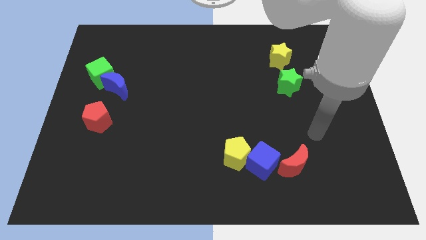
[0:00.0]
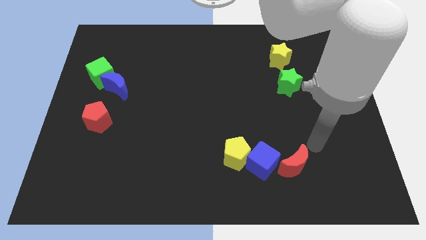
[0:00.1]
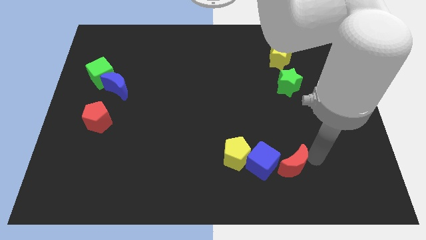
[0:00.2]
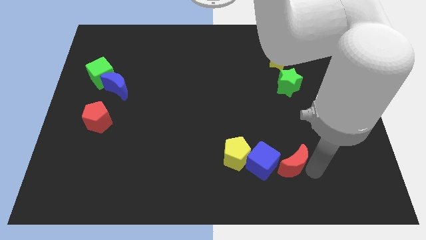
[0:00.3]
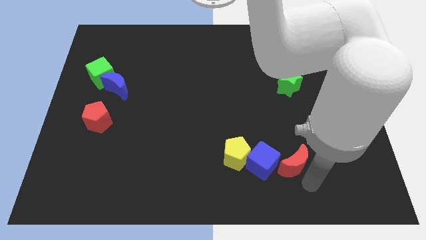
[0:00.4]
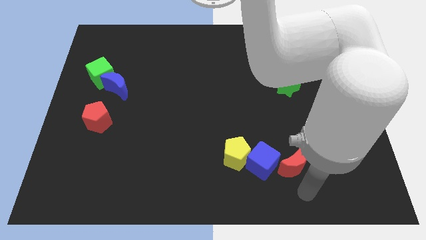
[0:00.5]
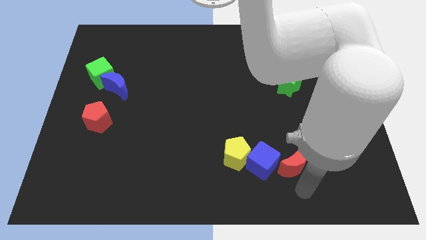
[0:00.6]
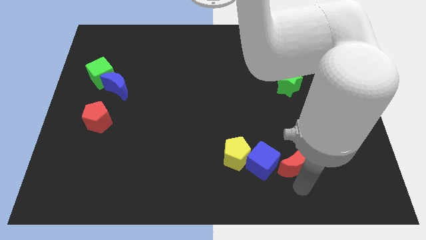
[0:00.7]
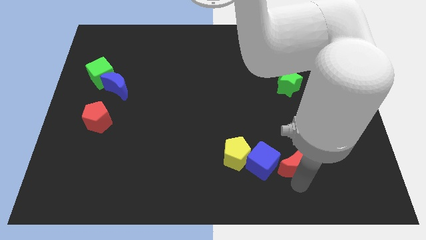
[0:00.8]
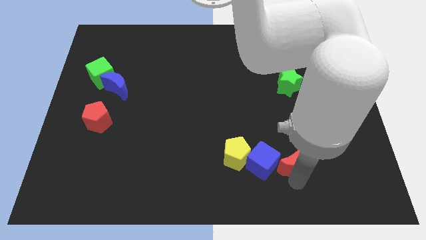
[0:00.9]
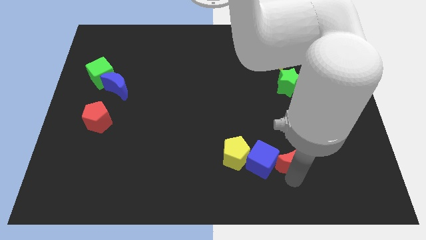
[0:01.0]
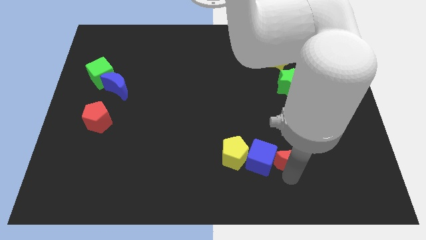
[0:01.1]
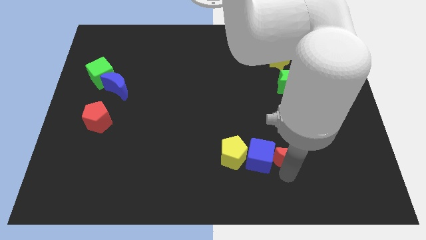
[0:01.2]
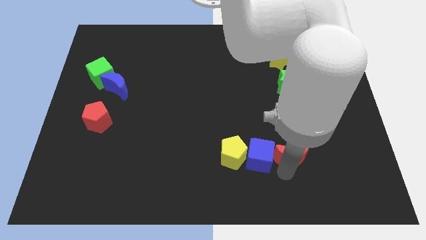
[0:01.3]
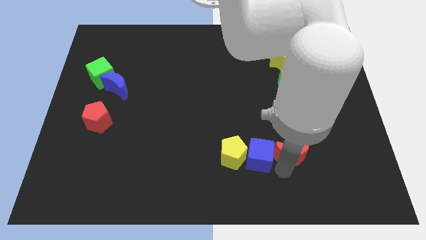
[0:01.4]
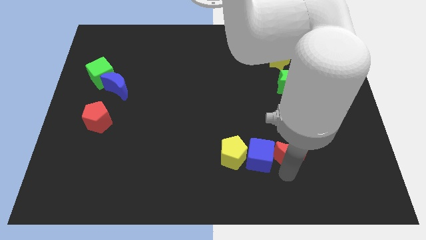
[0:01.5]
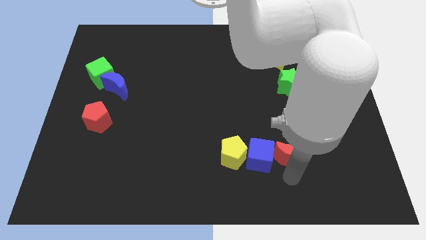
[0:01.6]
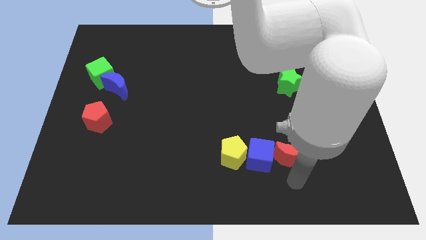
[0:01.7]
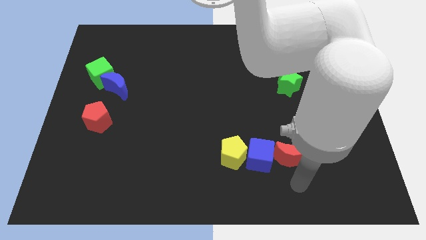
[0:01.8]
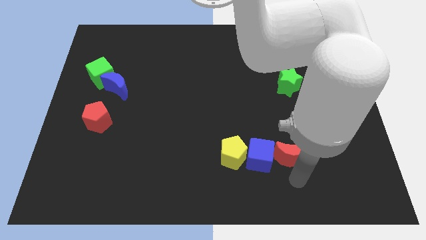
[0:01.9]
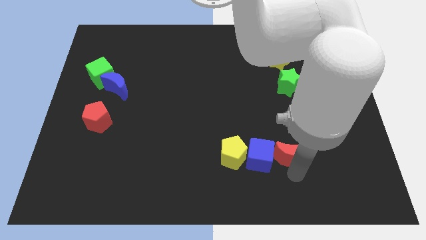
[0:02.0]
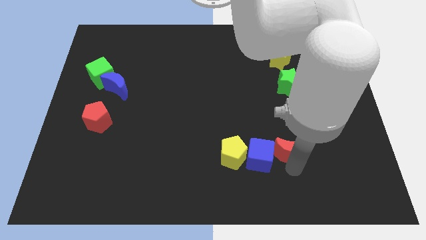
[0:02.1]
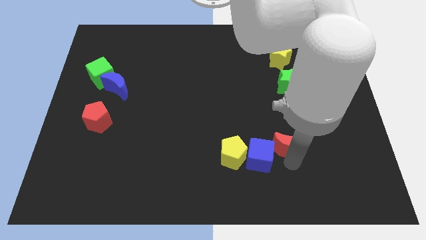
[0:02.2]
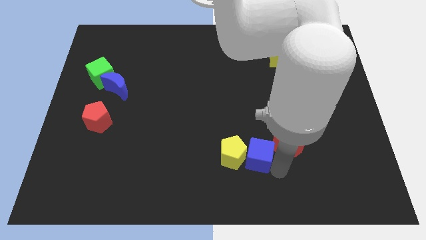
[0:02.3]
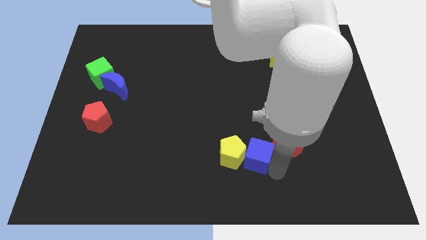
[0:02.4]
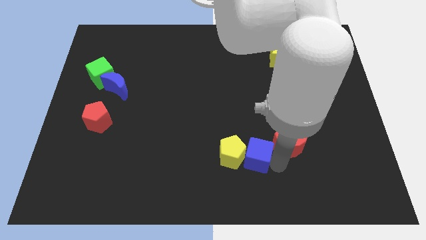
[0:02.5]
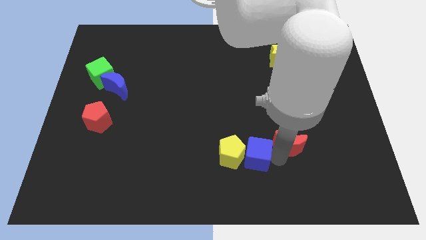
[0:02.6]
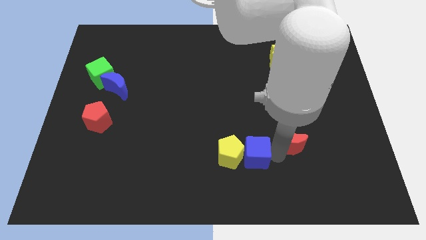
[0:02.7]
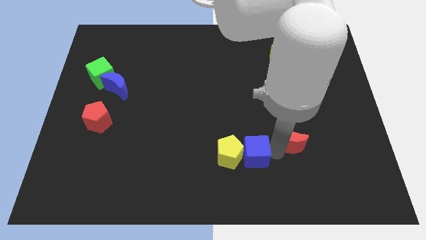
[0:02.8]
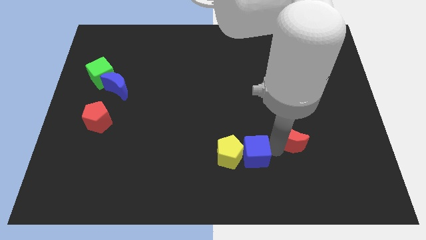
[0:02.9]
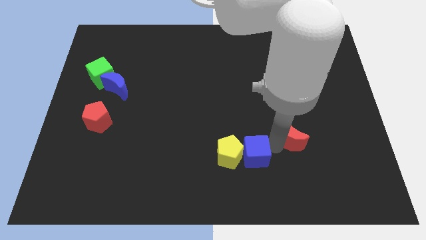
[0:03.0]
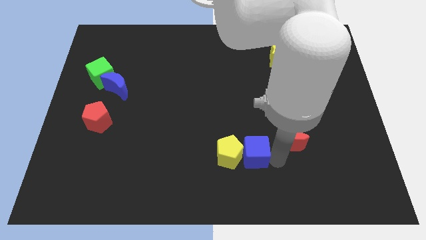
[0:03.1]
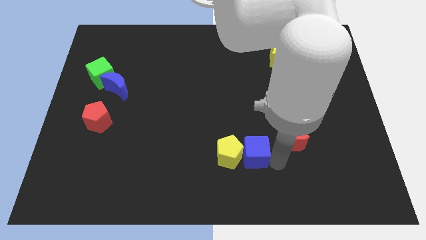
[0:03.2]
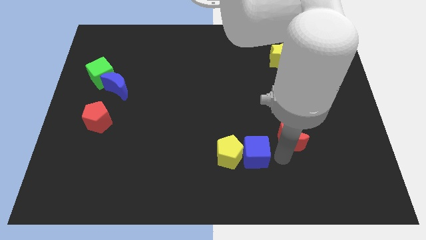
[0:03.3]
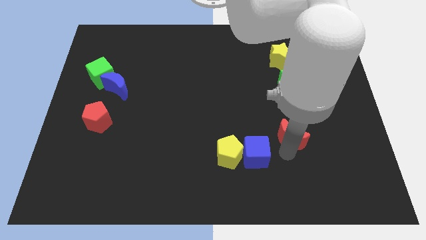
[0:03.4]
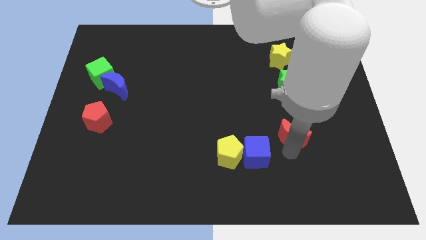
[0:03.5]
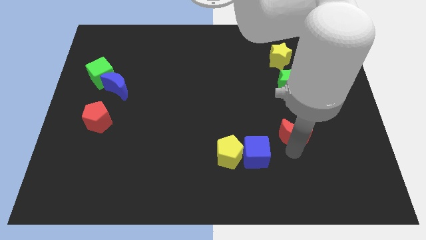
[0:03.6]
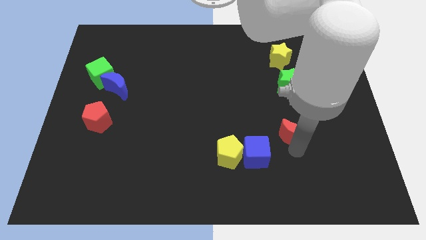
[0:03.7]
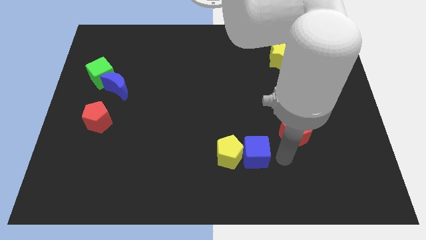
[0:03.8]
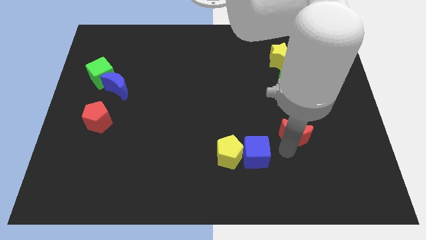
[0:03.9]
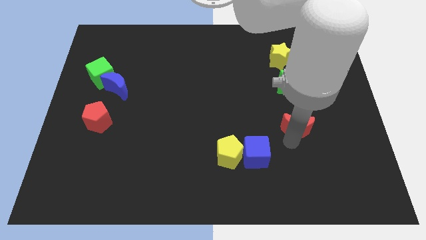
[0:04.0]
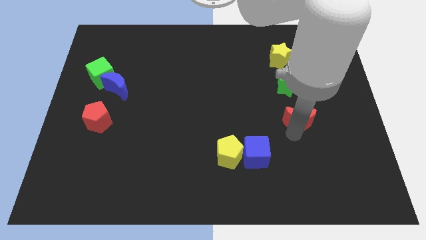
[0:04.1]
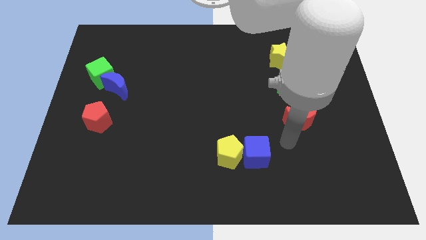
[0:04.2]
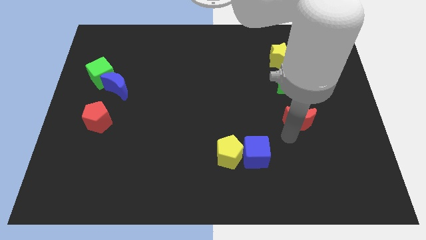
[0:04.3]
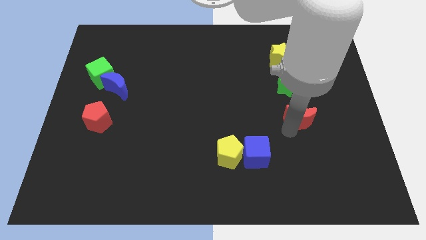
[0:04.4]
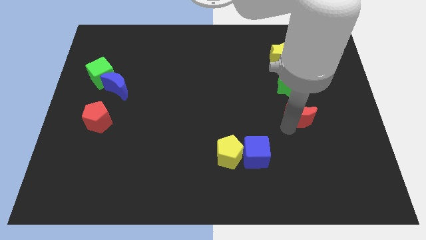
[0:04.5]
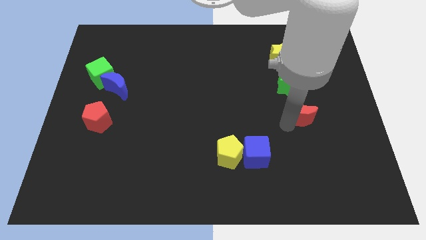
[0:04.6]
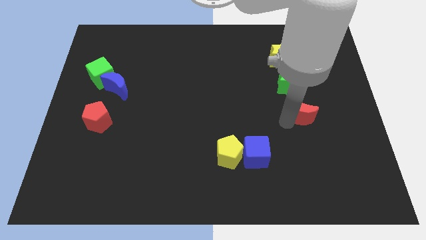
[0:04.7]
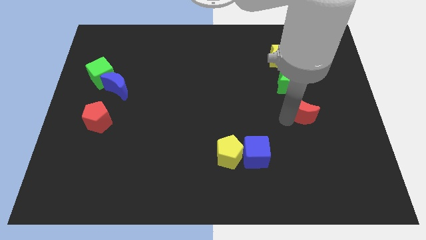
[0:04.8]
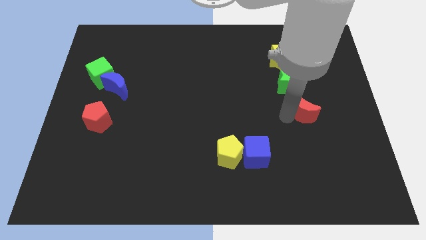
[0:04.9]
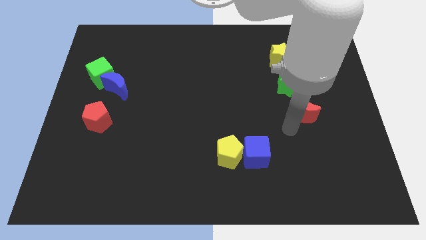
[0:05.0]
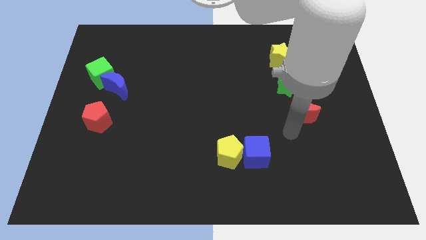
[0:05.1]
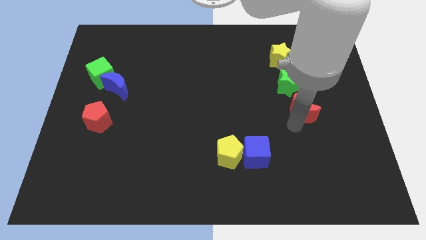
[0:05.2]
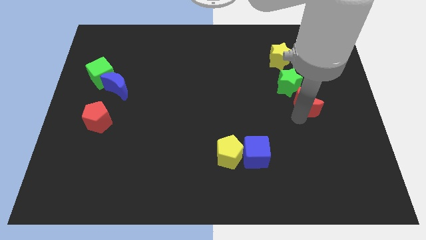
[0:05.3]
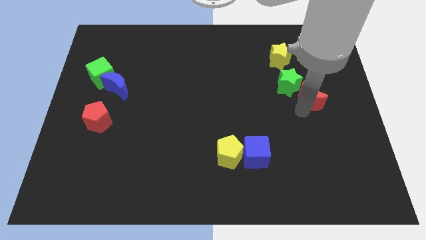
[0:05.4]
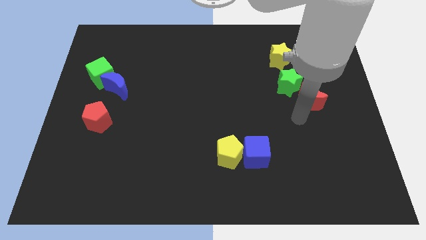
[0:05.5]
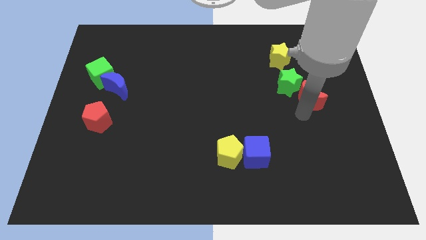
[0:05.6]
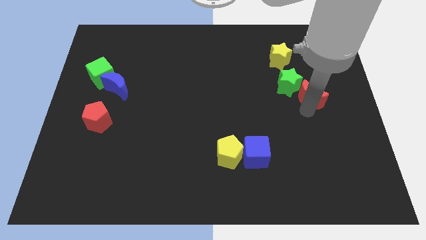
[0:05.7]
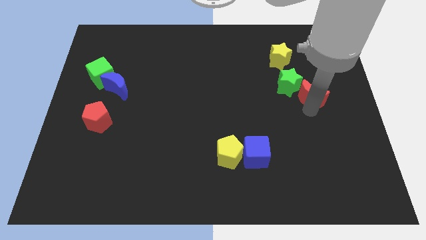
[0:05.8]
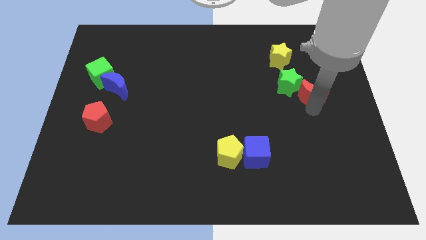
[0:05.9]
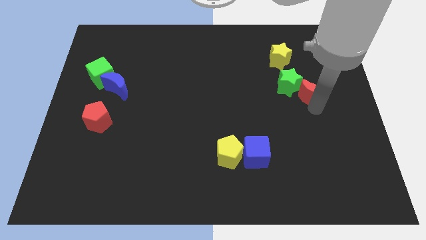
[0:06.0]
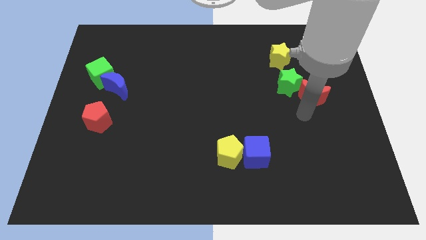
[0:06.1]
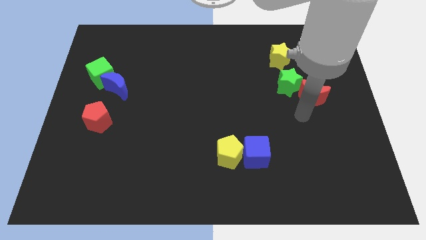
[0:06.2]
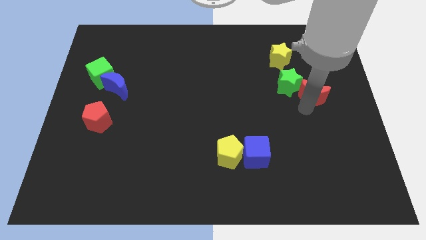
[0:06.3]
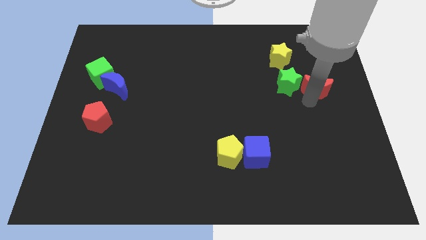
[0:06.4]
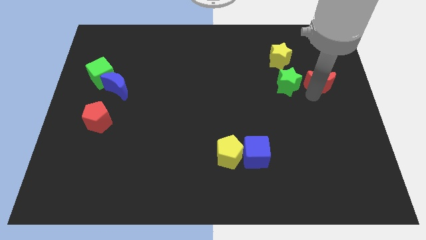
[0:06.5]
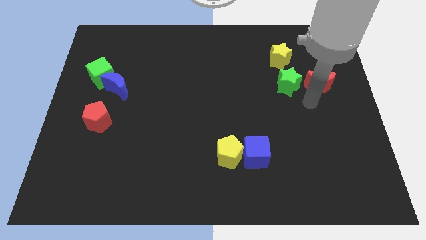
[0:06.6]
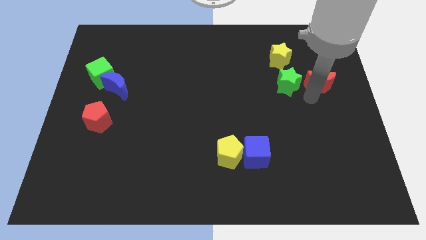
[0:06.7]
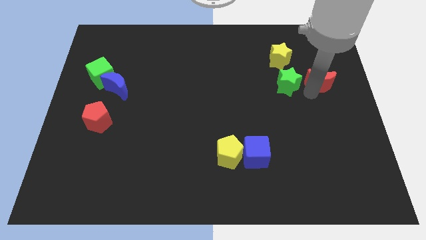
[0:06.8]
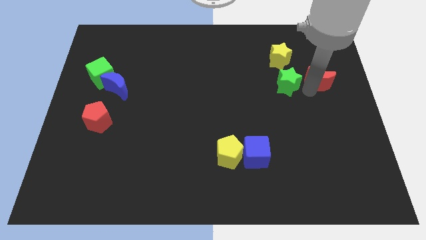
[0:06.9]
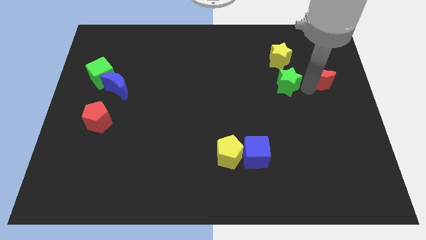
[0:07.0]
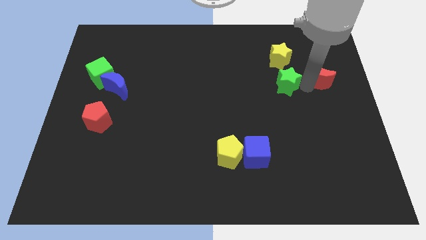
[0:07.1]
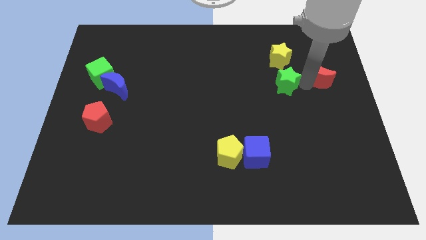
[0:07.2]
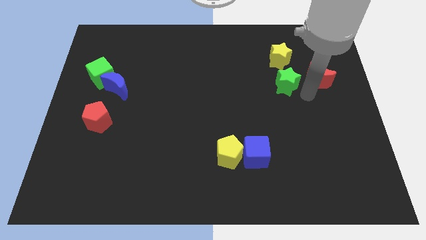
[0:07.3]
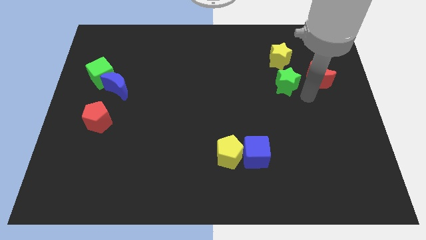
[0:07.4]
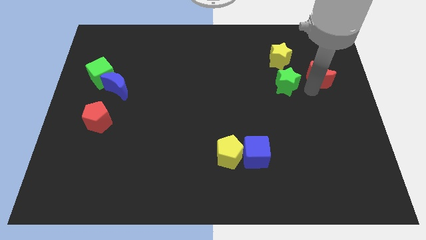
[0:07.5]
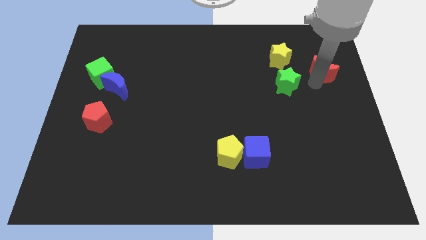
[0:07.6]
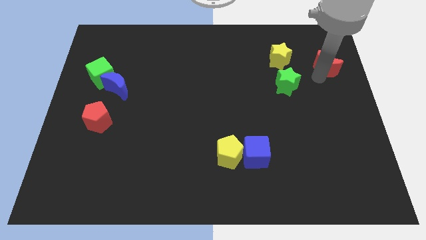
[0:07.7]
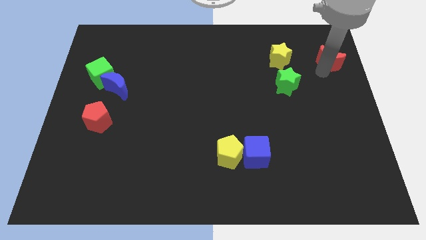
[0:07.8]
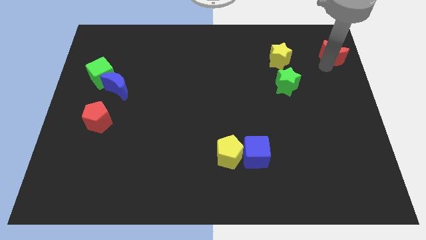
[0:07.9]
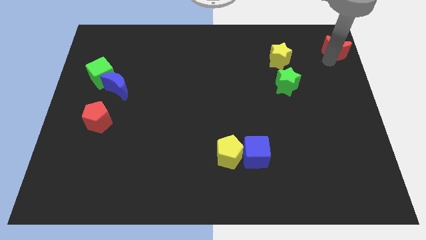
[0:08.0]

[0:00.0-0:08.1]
put the red moon to the top right corner
